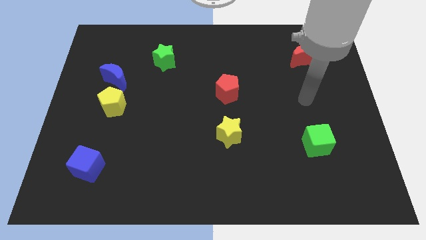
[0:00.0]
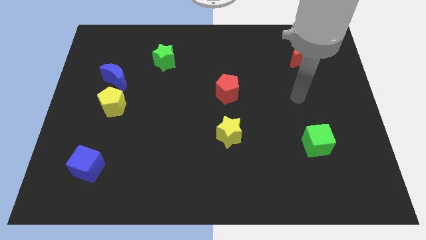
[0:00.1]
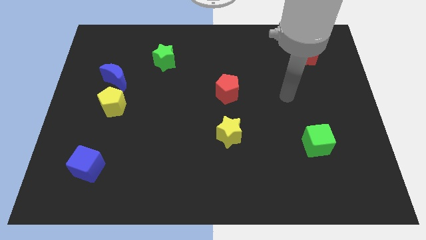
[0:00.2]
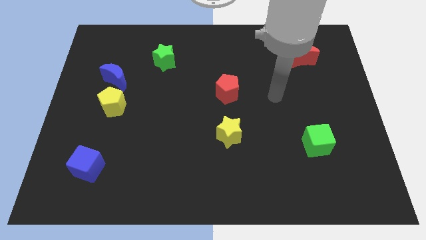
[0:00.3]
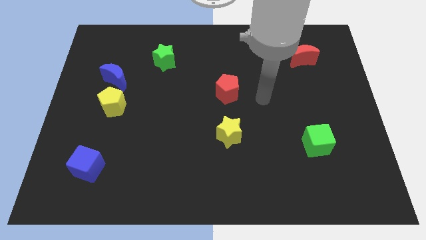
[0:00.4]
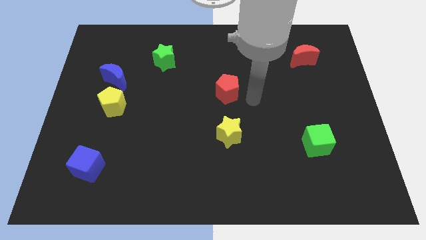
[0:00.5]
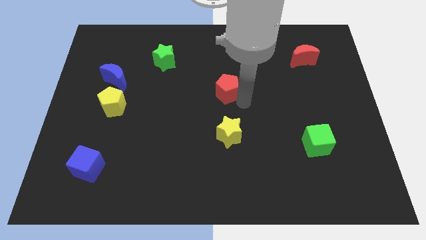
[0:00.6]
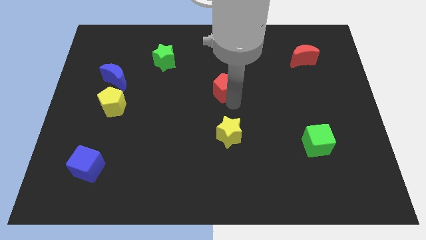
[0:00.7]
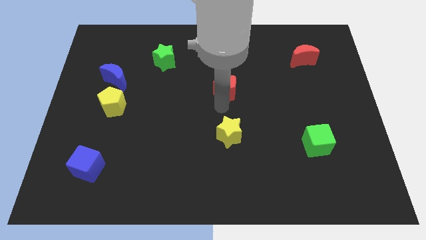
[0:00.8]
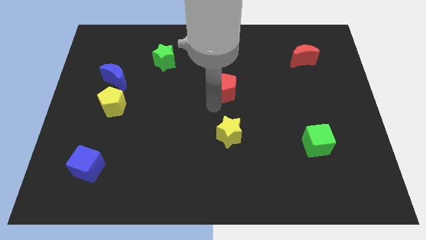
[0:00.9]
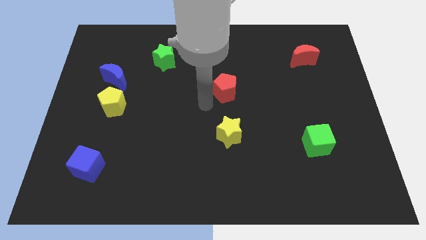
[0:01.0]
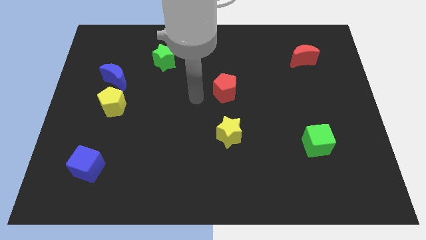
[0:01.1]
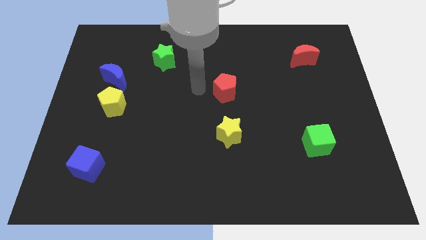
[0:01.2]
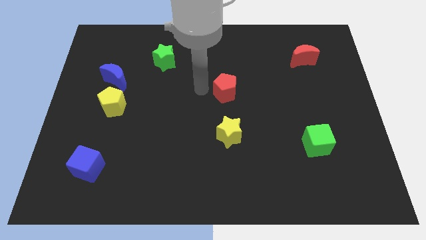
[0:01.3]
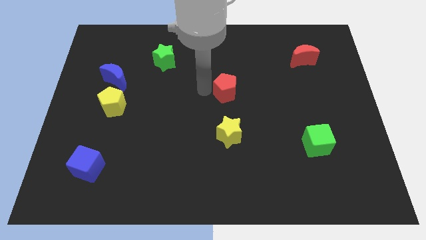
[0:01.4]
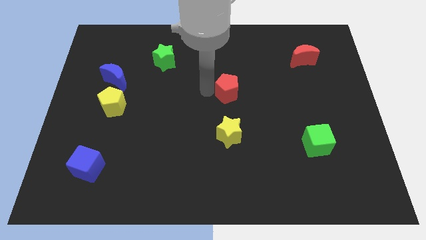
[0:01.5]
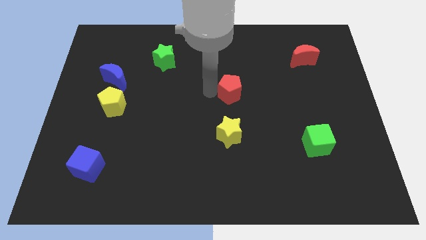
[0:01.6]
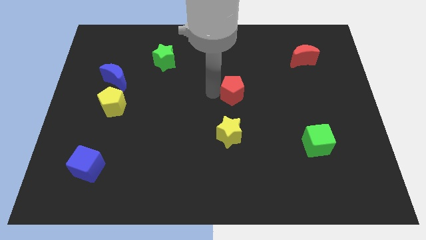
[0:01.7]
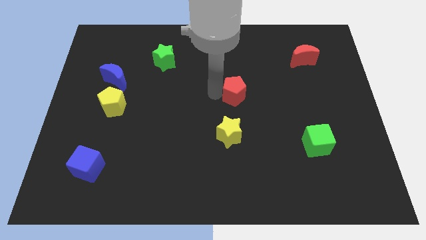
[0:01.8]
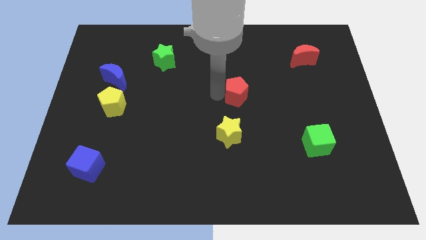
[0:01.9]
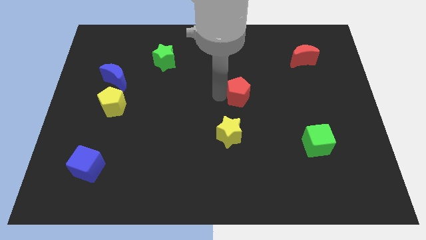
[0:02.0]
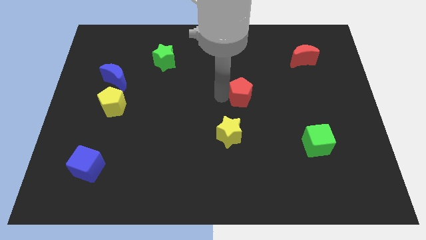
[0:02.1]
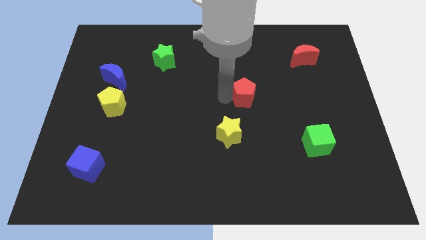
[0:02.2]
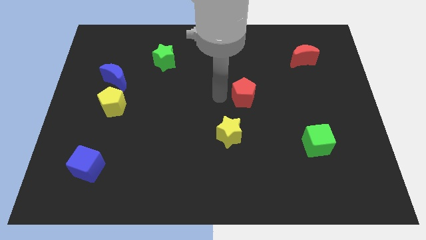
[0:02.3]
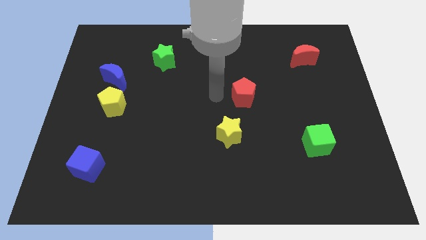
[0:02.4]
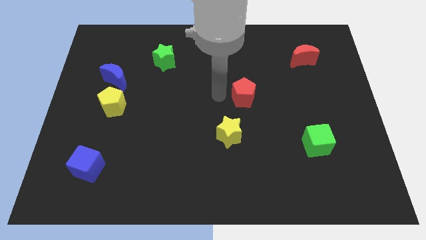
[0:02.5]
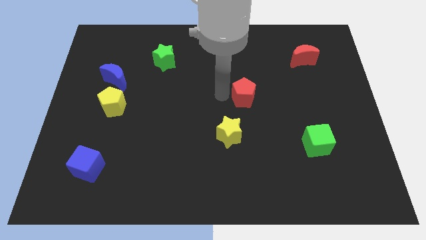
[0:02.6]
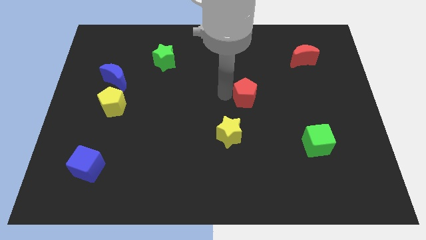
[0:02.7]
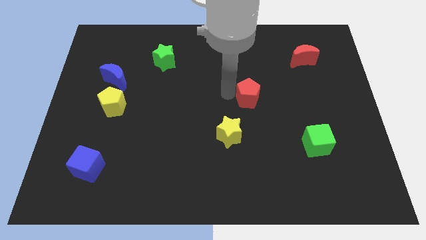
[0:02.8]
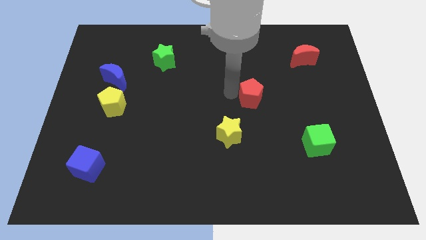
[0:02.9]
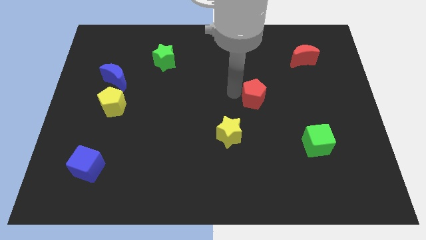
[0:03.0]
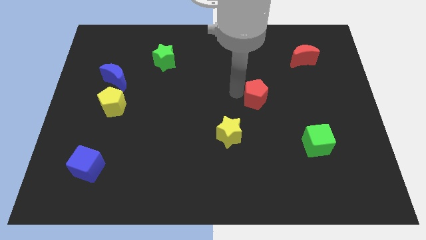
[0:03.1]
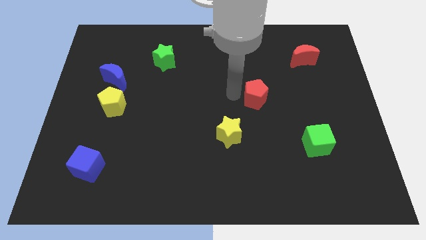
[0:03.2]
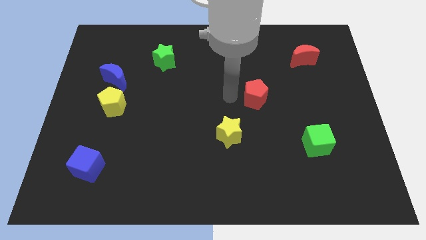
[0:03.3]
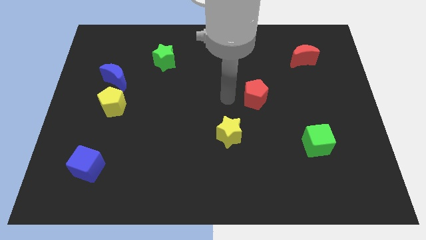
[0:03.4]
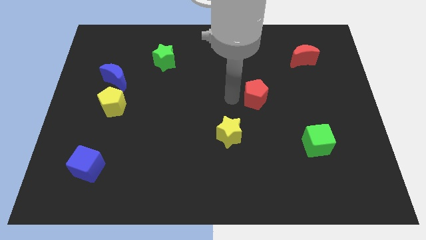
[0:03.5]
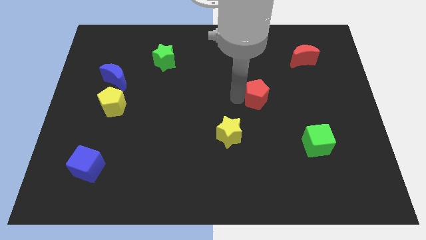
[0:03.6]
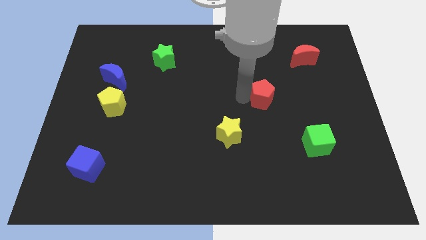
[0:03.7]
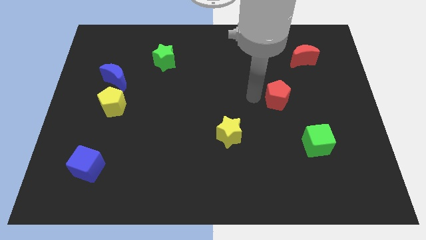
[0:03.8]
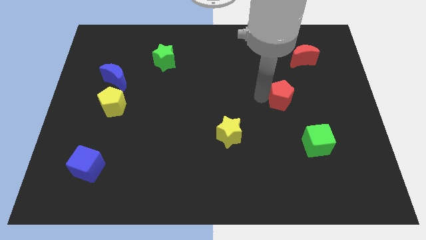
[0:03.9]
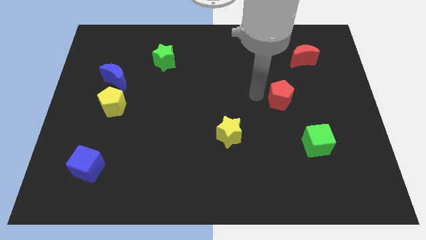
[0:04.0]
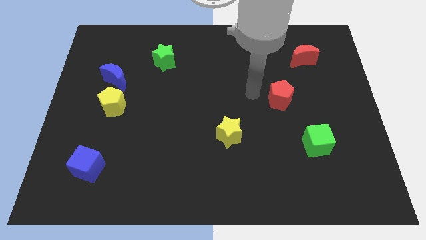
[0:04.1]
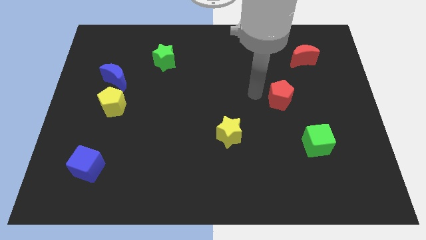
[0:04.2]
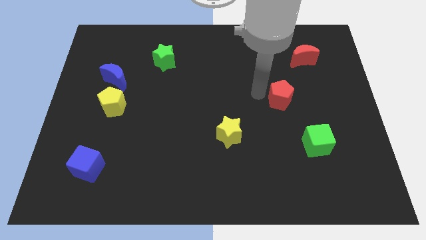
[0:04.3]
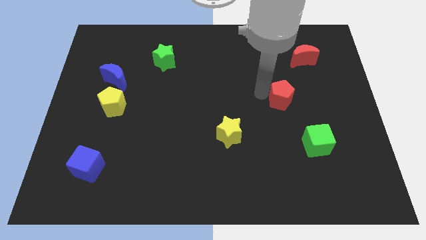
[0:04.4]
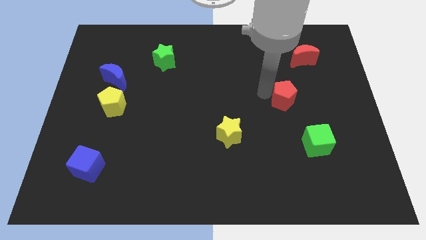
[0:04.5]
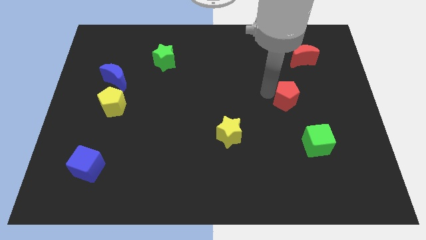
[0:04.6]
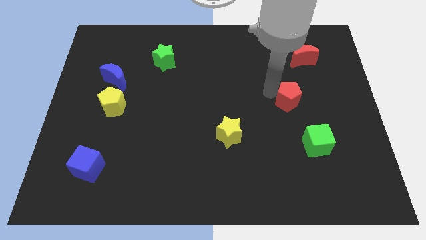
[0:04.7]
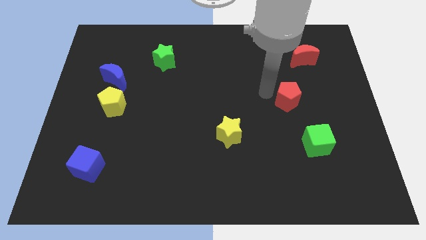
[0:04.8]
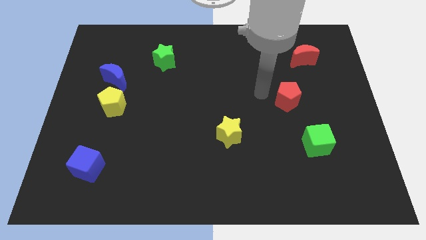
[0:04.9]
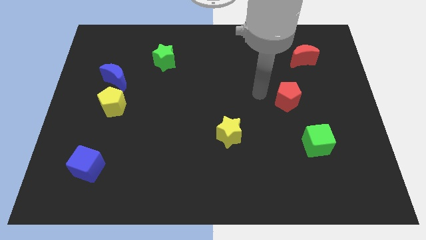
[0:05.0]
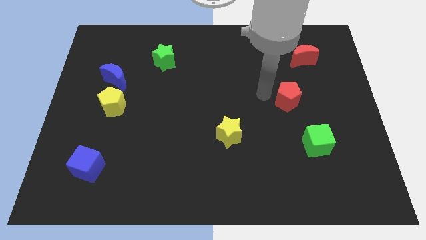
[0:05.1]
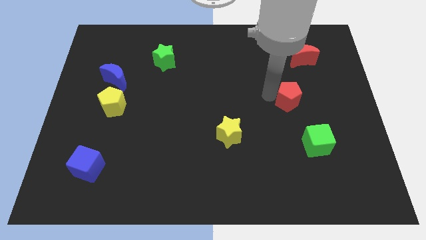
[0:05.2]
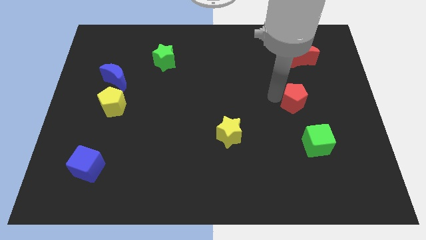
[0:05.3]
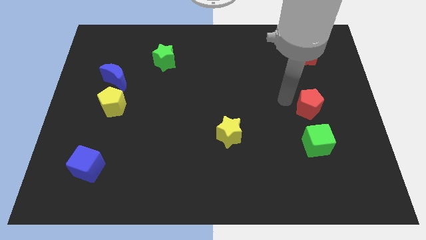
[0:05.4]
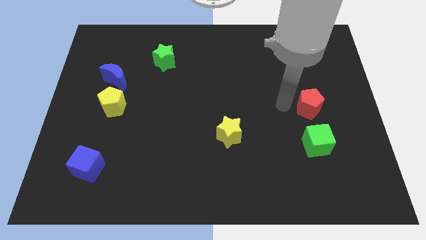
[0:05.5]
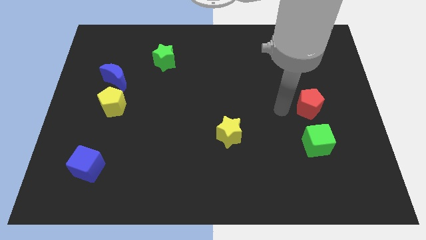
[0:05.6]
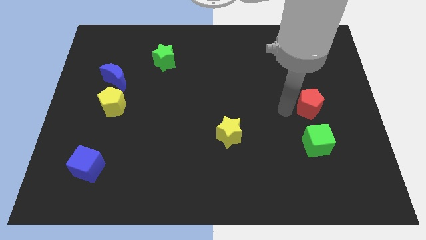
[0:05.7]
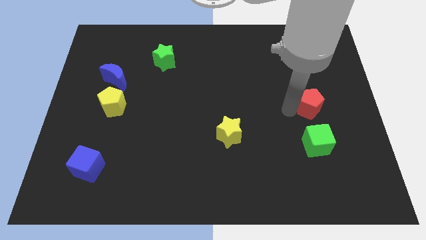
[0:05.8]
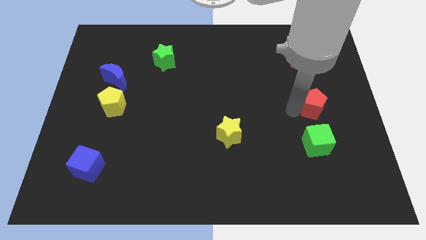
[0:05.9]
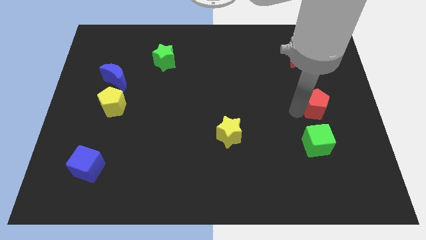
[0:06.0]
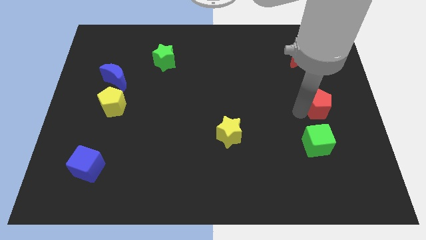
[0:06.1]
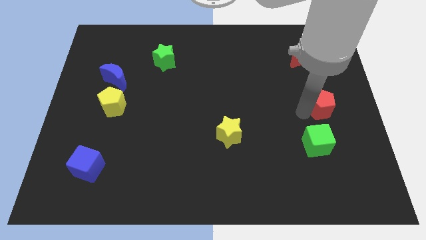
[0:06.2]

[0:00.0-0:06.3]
slide the red pentagon to the right side
